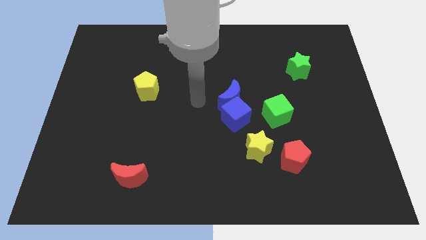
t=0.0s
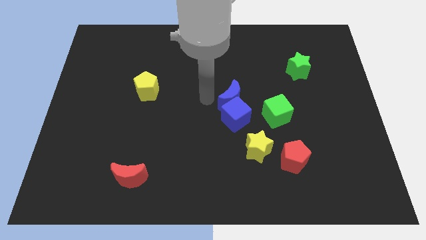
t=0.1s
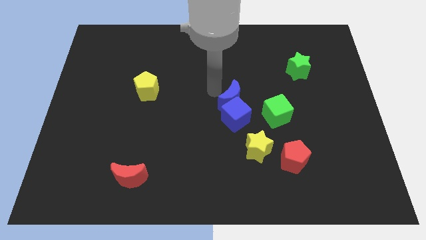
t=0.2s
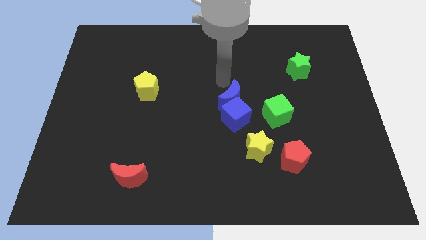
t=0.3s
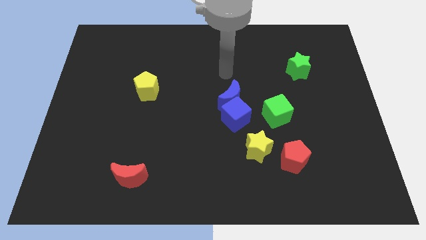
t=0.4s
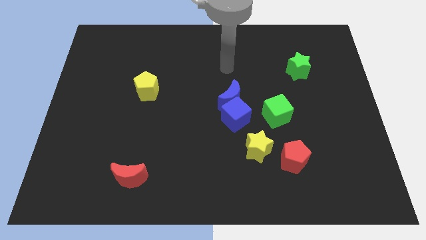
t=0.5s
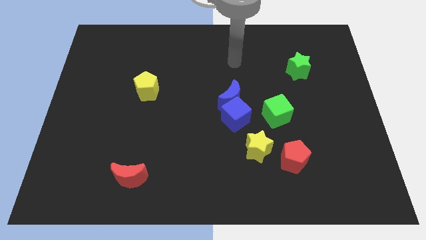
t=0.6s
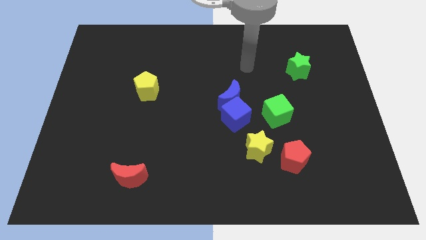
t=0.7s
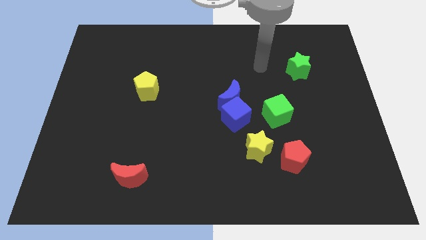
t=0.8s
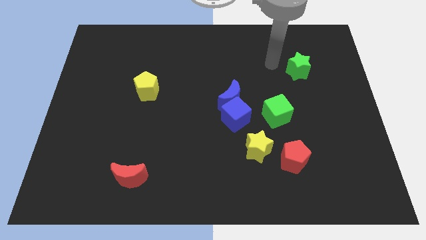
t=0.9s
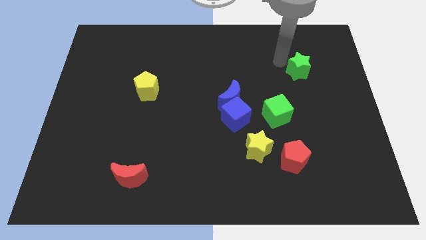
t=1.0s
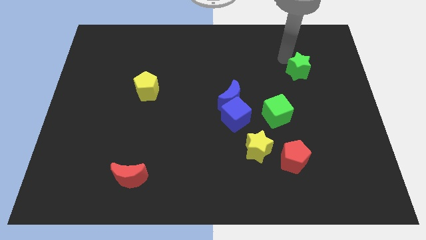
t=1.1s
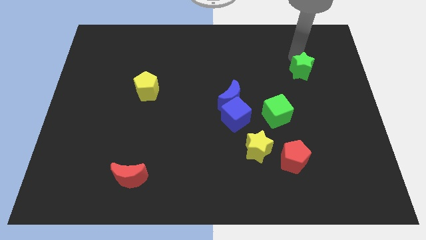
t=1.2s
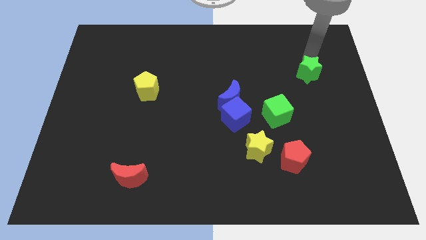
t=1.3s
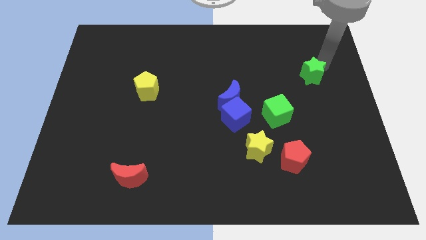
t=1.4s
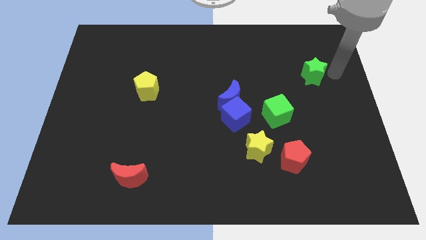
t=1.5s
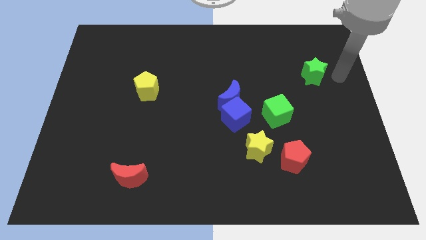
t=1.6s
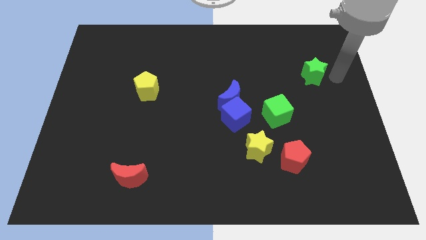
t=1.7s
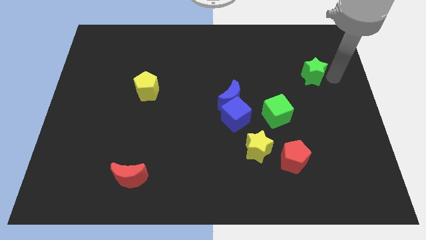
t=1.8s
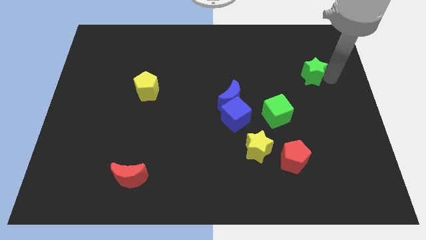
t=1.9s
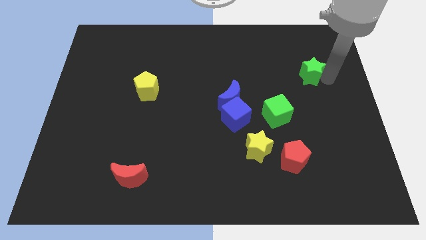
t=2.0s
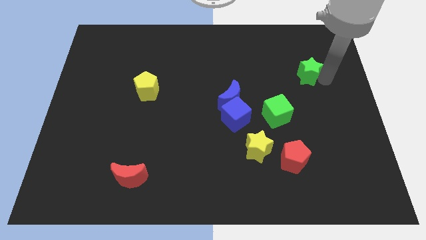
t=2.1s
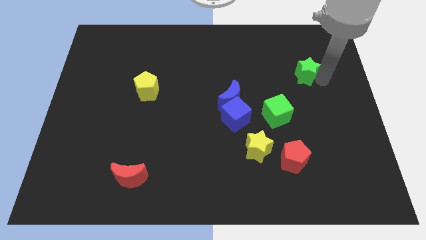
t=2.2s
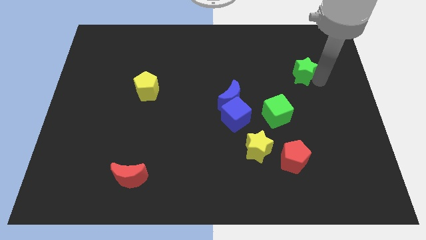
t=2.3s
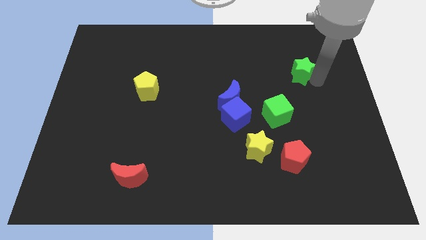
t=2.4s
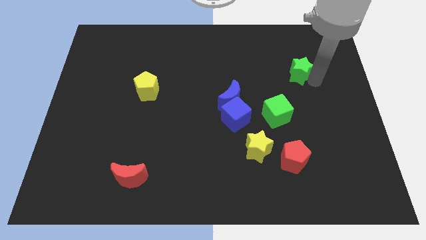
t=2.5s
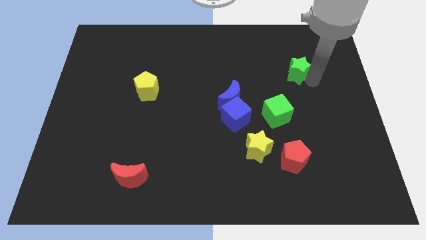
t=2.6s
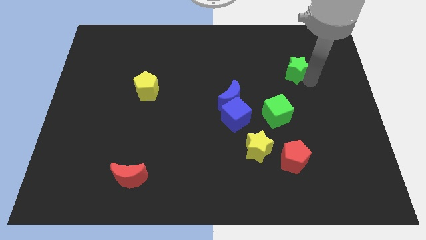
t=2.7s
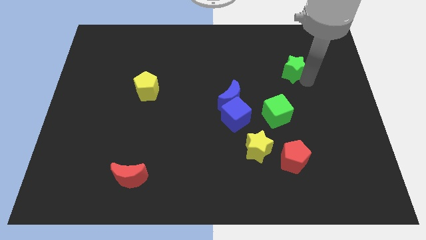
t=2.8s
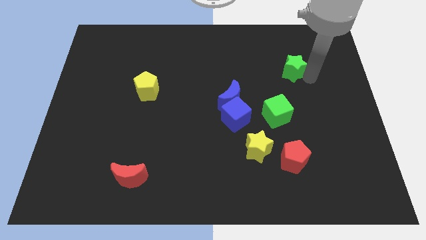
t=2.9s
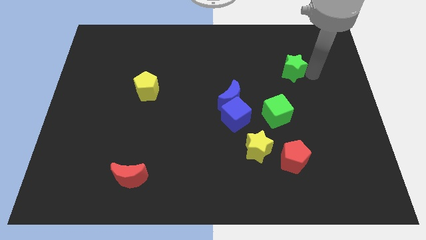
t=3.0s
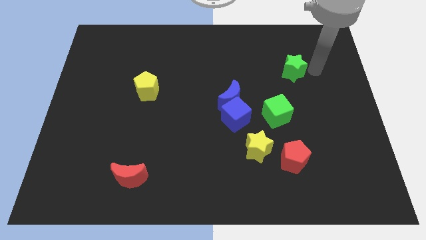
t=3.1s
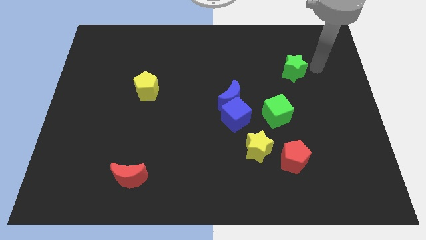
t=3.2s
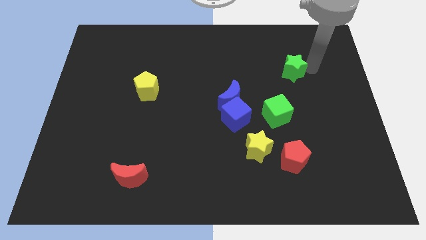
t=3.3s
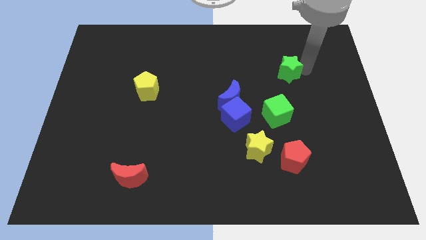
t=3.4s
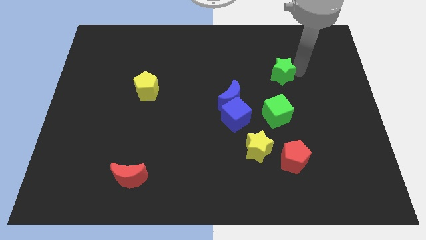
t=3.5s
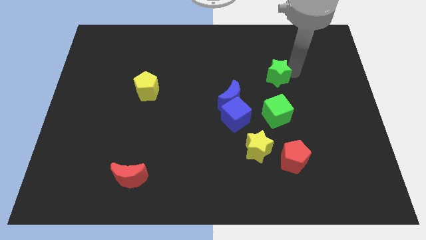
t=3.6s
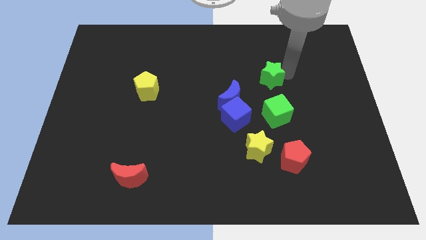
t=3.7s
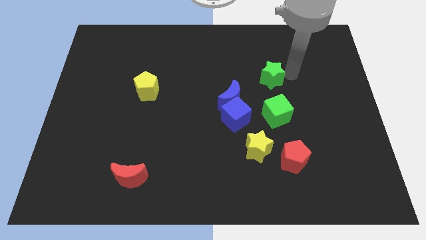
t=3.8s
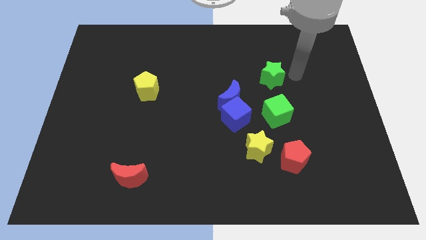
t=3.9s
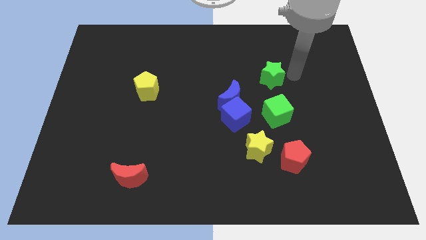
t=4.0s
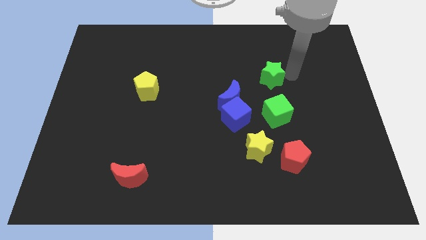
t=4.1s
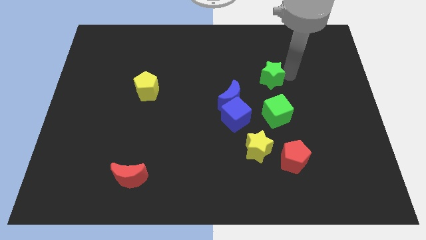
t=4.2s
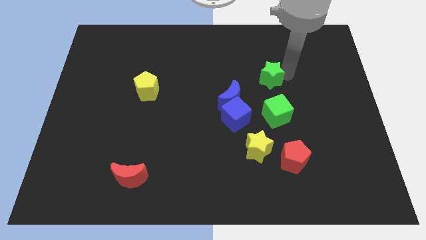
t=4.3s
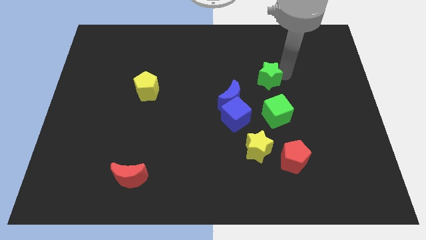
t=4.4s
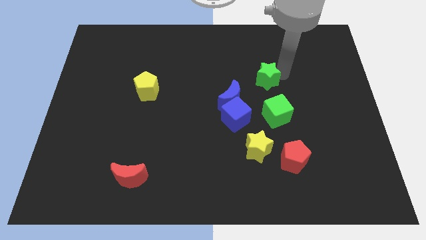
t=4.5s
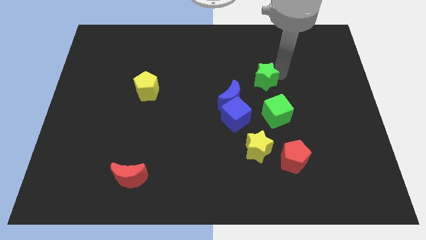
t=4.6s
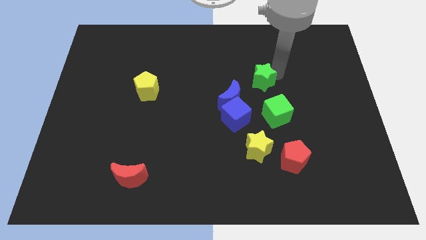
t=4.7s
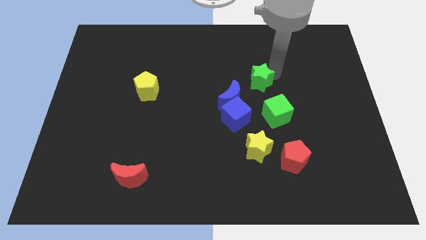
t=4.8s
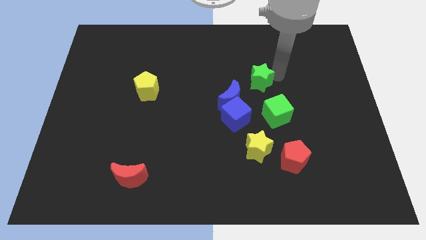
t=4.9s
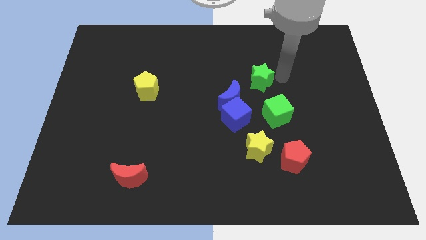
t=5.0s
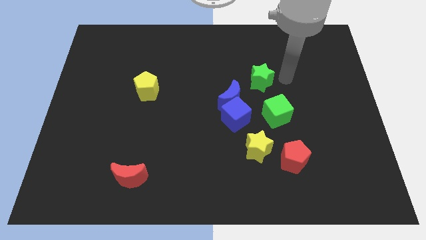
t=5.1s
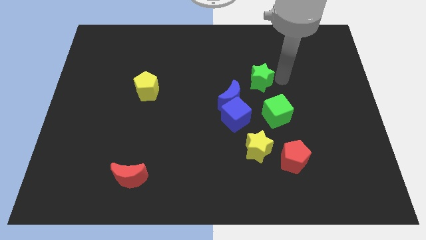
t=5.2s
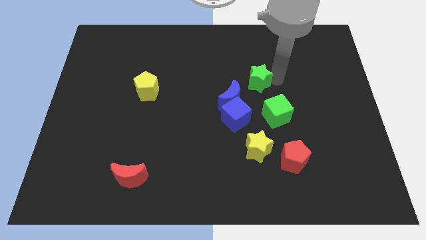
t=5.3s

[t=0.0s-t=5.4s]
push the green star to the middle

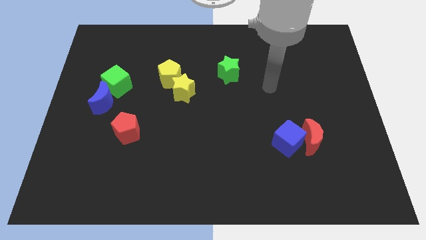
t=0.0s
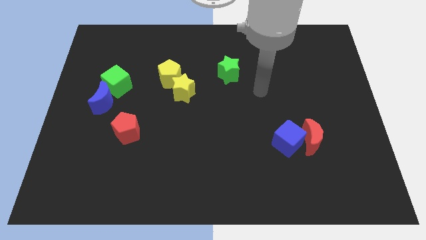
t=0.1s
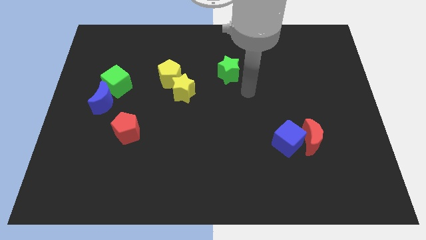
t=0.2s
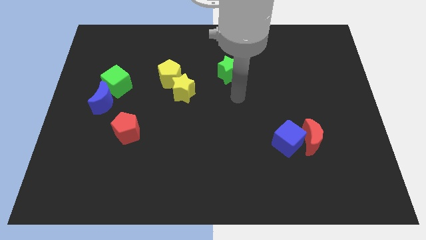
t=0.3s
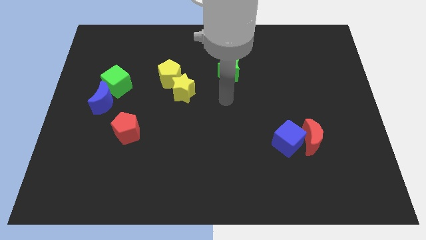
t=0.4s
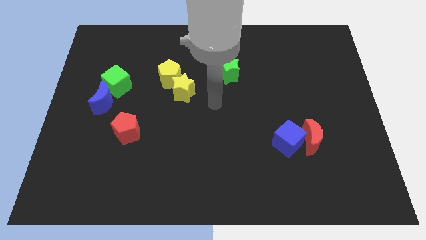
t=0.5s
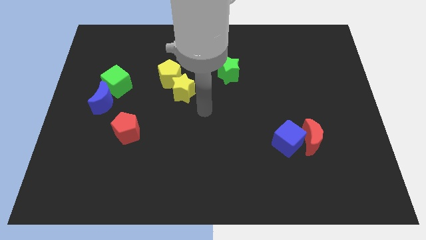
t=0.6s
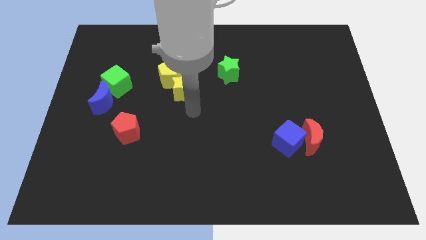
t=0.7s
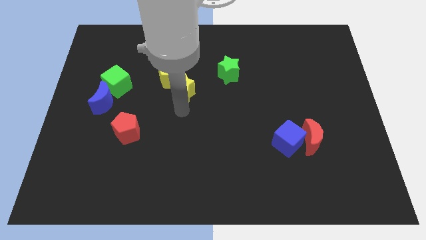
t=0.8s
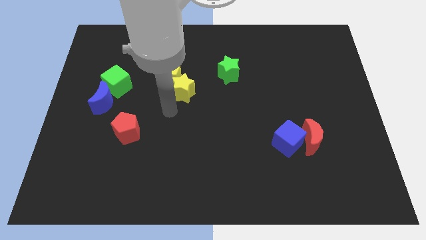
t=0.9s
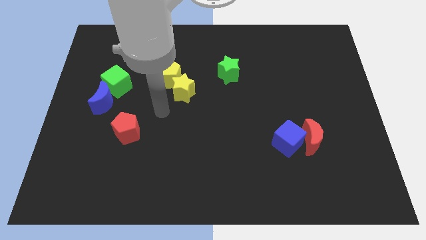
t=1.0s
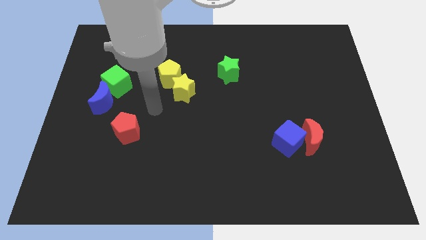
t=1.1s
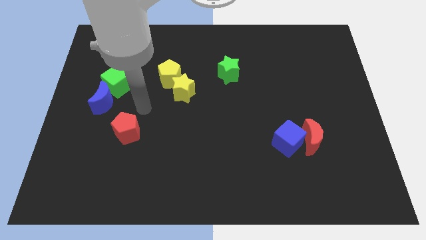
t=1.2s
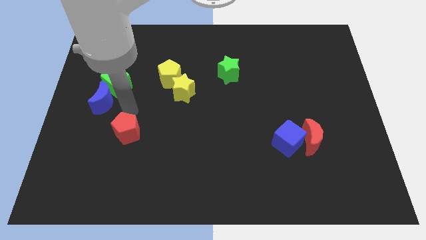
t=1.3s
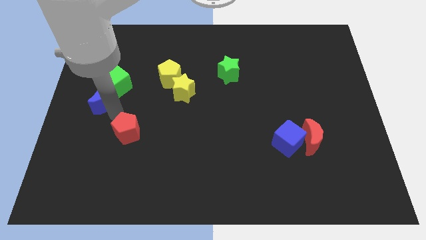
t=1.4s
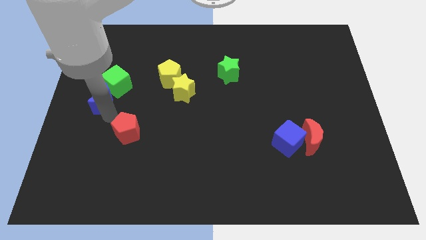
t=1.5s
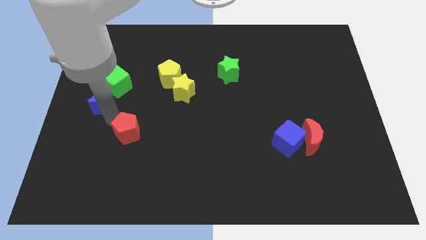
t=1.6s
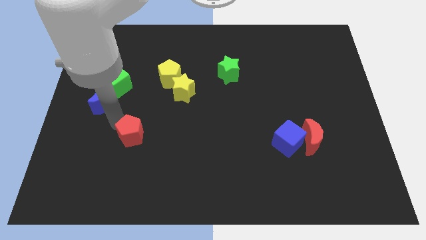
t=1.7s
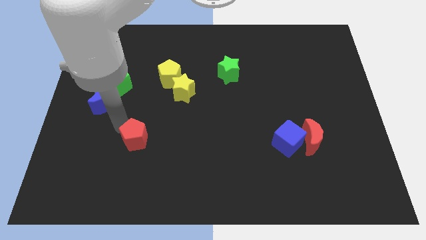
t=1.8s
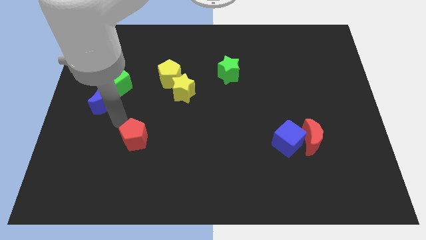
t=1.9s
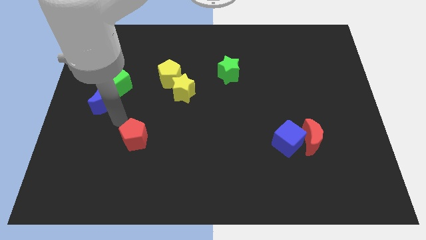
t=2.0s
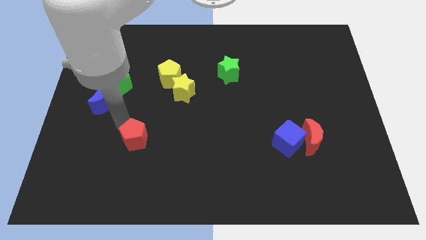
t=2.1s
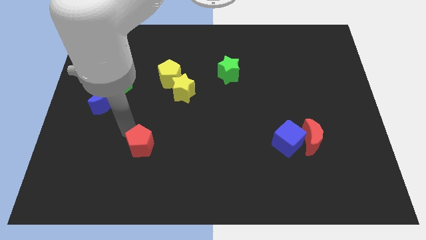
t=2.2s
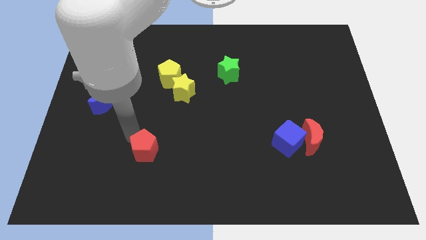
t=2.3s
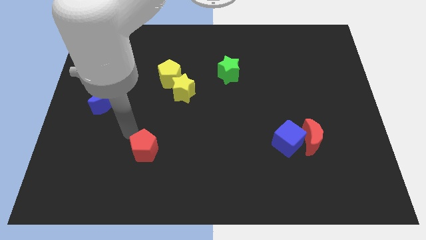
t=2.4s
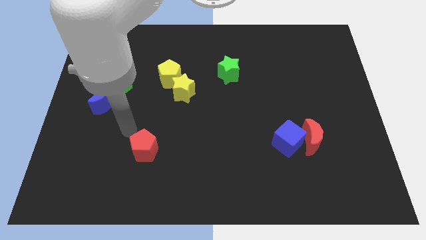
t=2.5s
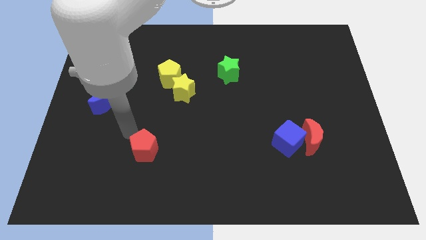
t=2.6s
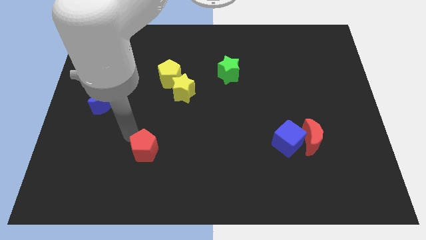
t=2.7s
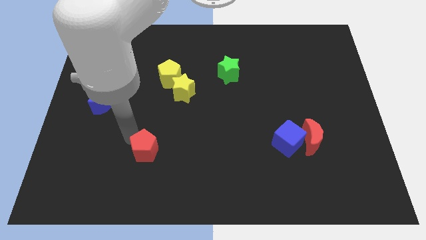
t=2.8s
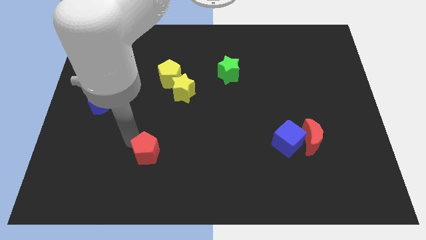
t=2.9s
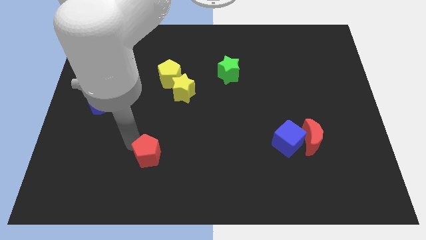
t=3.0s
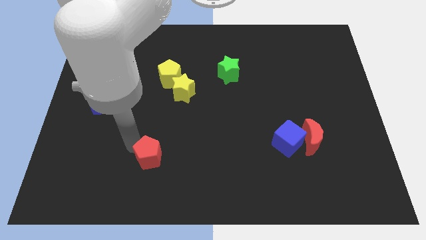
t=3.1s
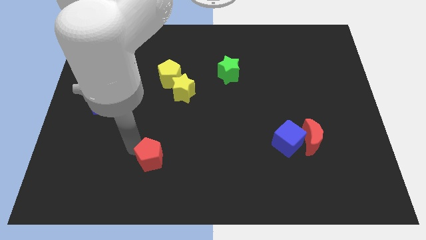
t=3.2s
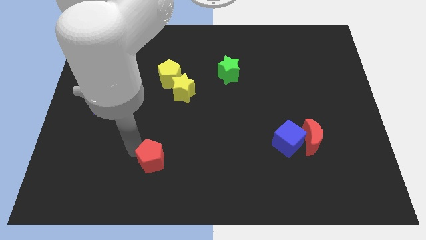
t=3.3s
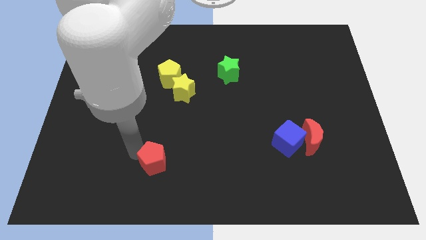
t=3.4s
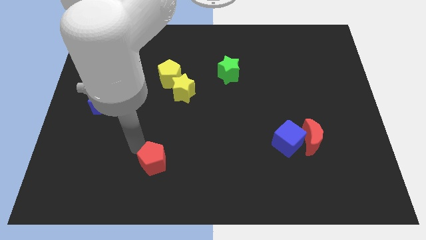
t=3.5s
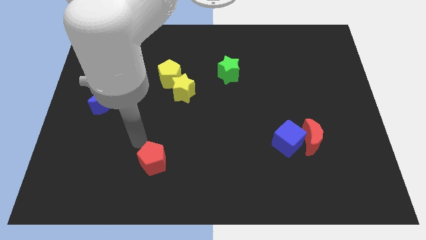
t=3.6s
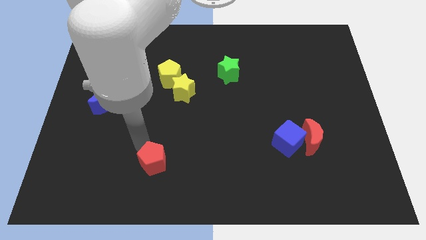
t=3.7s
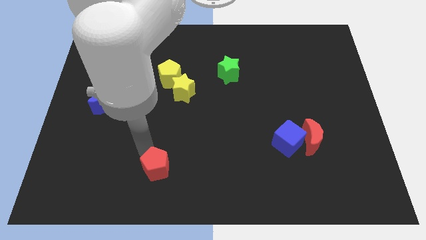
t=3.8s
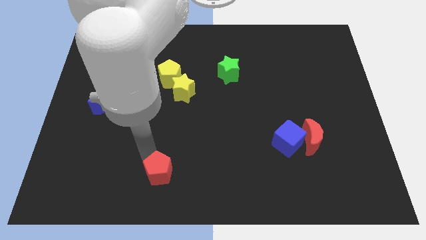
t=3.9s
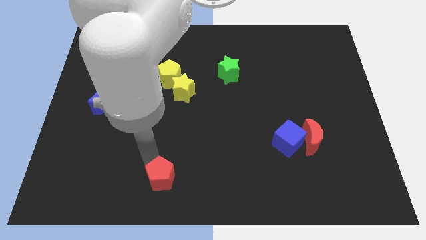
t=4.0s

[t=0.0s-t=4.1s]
push the red pentagon to the bottom side
